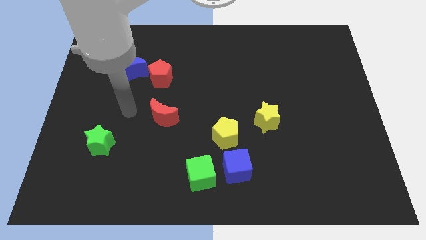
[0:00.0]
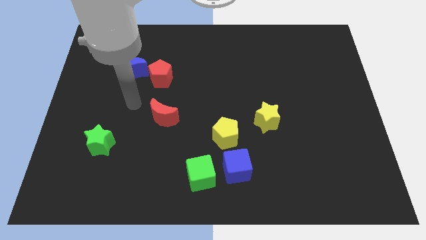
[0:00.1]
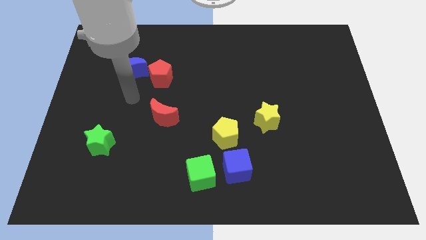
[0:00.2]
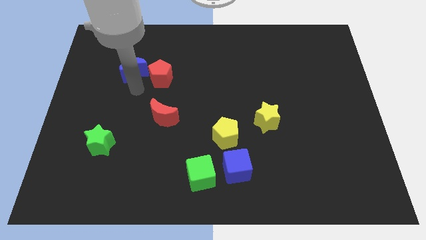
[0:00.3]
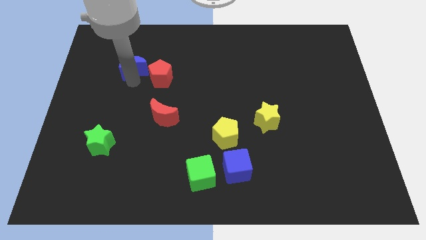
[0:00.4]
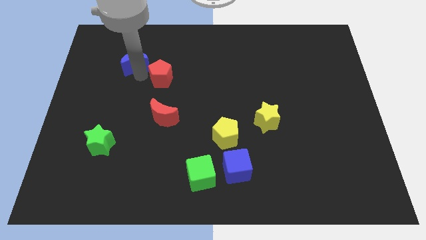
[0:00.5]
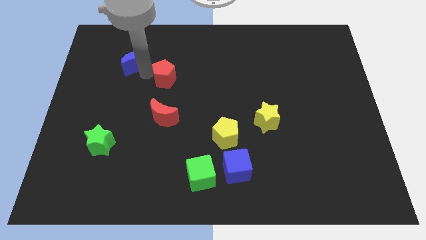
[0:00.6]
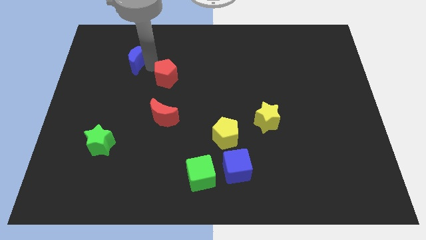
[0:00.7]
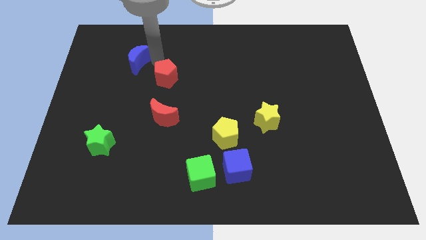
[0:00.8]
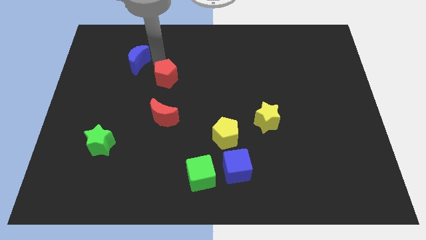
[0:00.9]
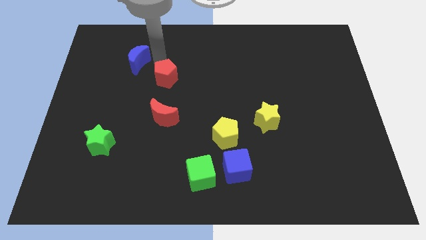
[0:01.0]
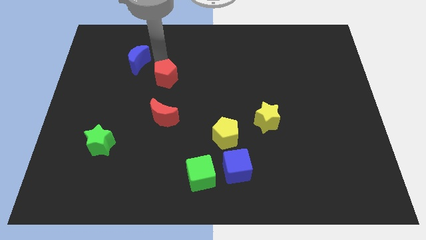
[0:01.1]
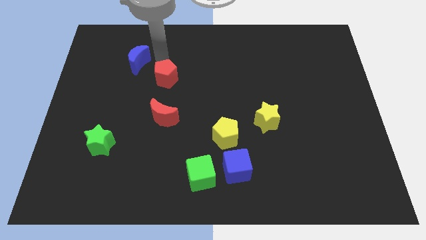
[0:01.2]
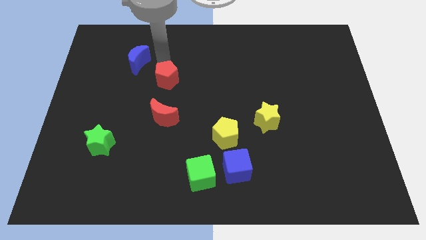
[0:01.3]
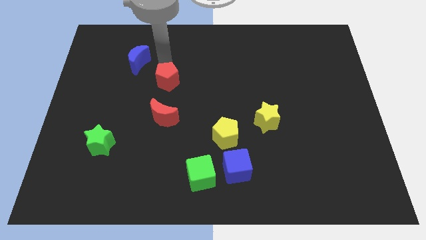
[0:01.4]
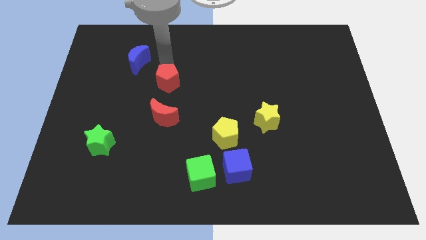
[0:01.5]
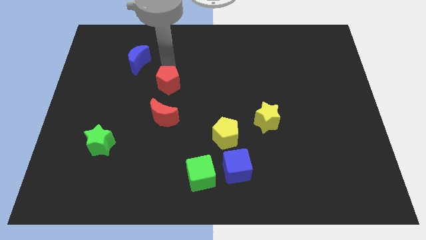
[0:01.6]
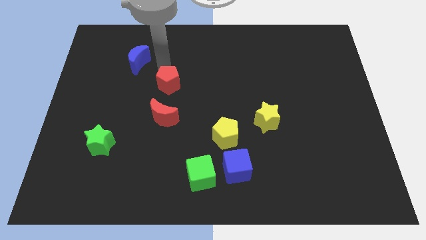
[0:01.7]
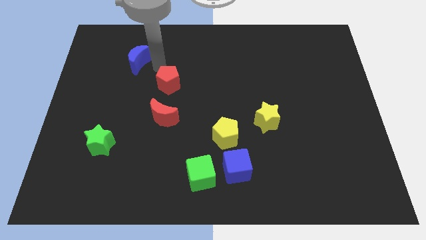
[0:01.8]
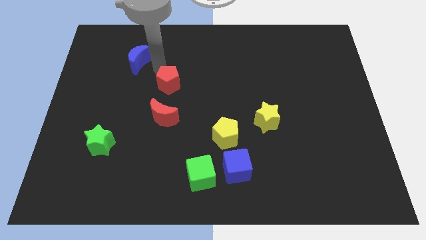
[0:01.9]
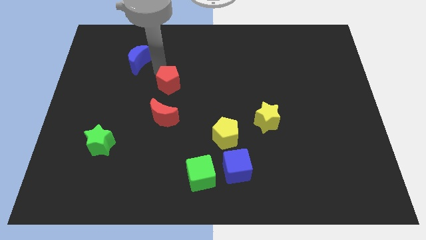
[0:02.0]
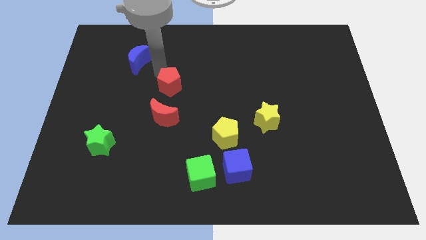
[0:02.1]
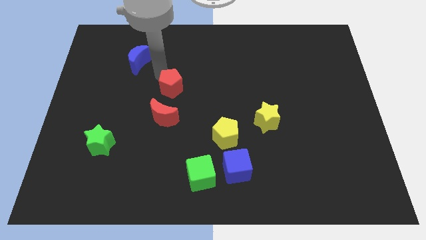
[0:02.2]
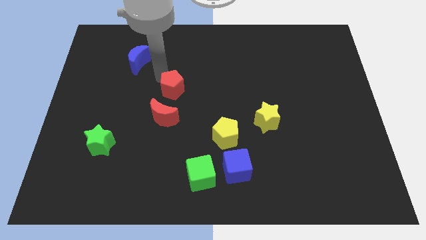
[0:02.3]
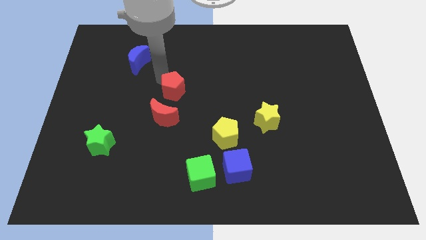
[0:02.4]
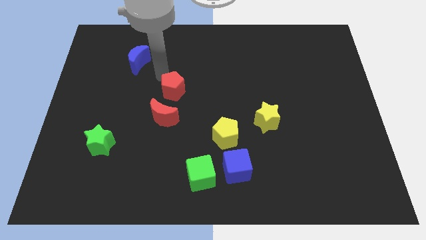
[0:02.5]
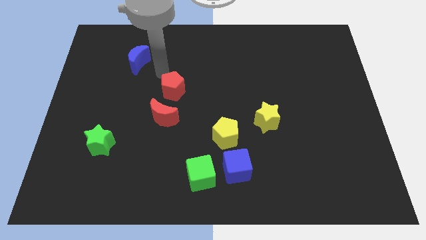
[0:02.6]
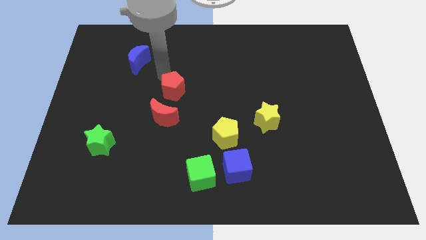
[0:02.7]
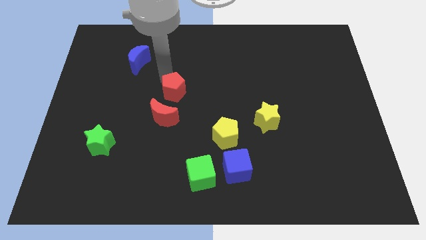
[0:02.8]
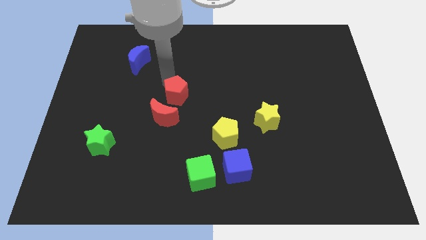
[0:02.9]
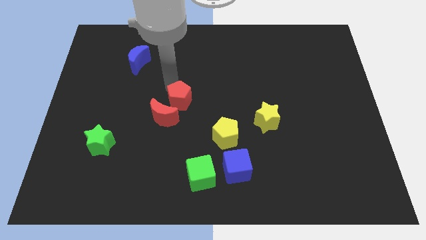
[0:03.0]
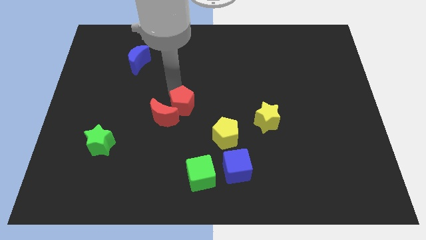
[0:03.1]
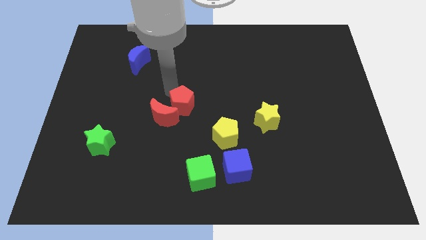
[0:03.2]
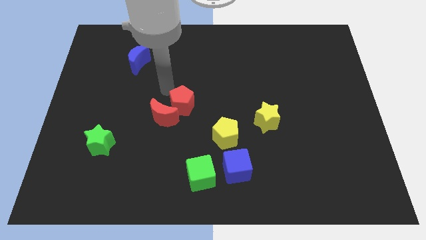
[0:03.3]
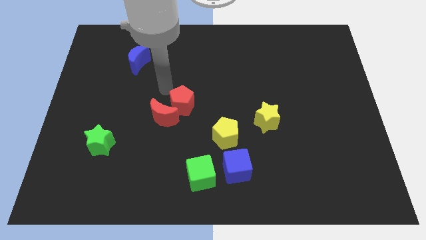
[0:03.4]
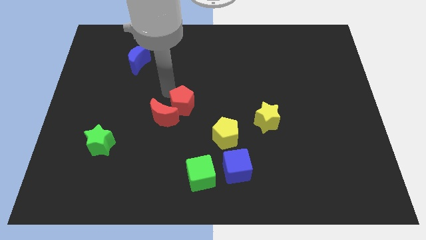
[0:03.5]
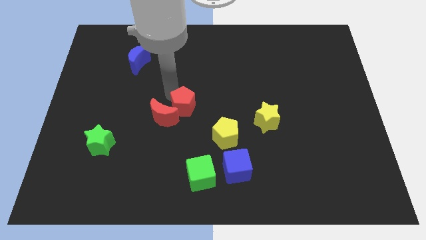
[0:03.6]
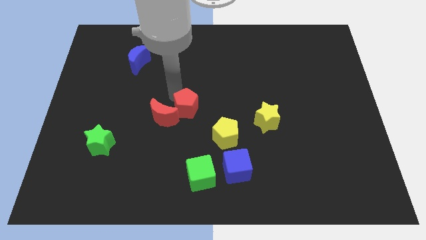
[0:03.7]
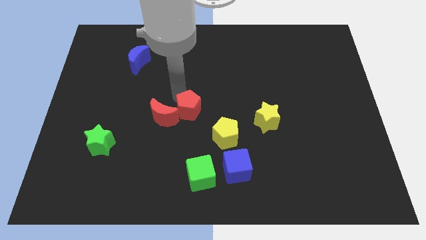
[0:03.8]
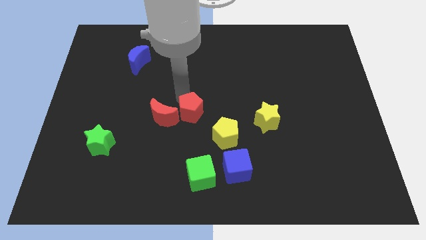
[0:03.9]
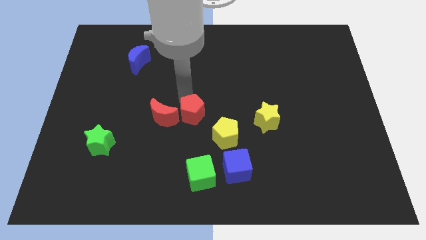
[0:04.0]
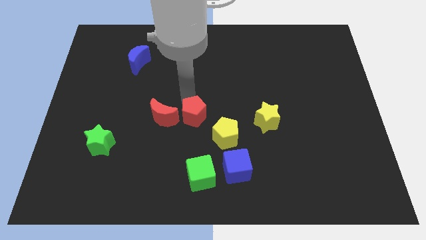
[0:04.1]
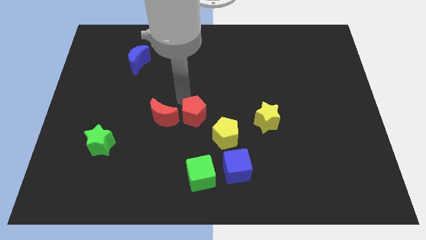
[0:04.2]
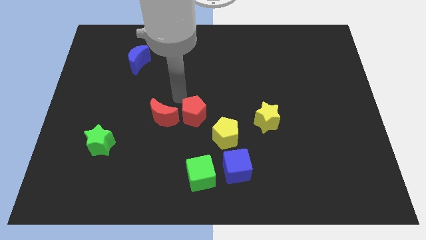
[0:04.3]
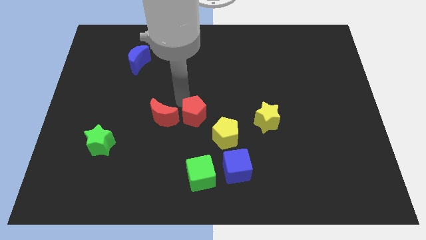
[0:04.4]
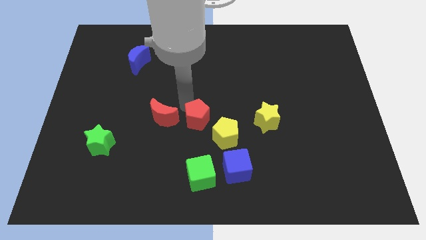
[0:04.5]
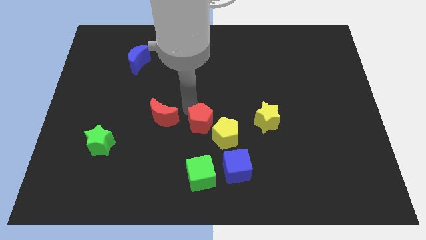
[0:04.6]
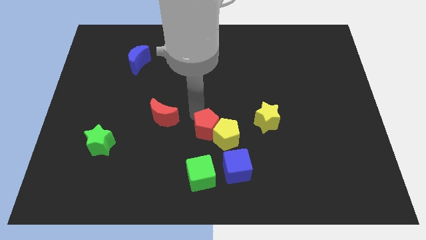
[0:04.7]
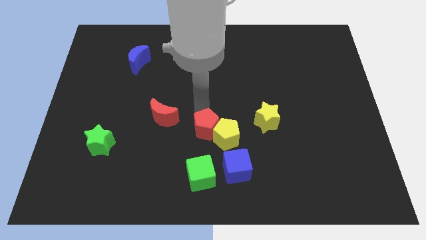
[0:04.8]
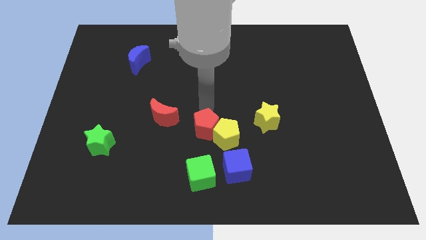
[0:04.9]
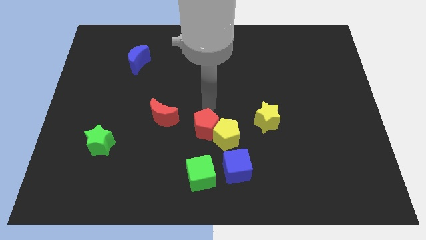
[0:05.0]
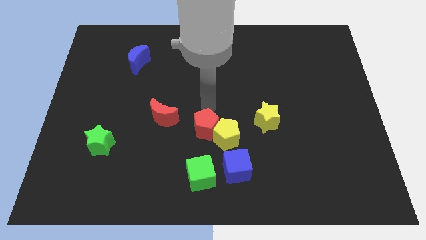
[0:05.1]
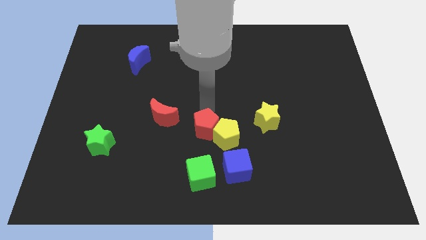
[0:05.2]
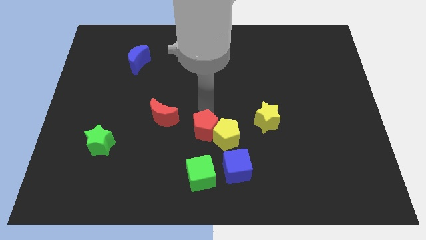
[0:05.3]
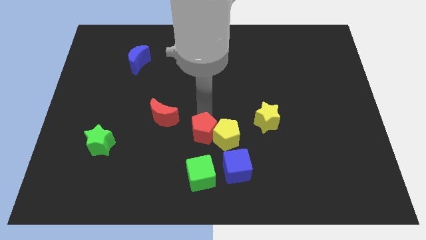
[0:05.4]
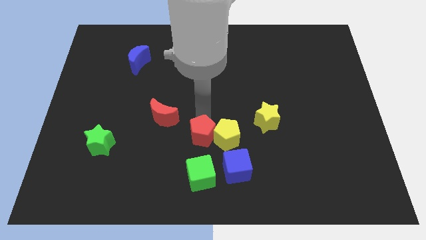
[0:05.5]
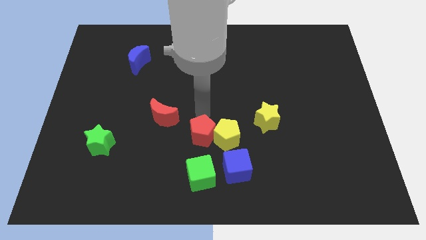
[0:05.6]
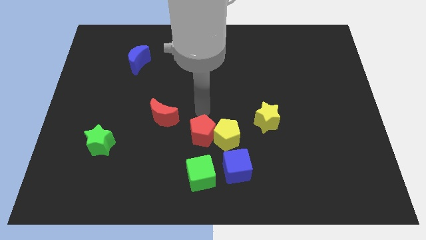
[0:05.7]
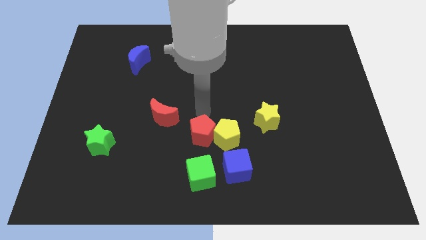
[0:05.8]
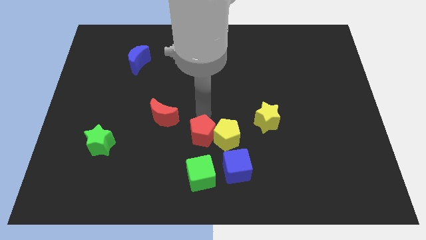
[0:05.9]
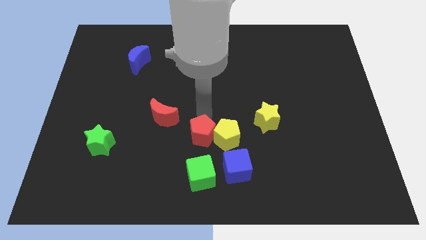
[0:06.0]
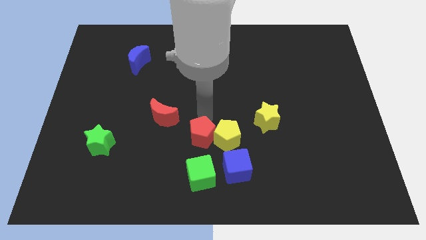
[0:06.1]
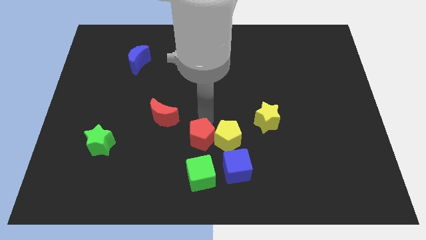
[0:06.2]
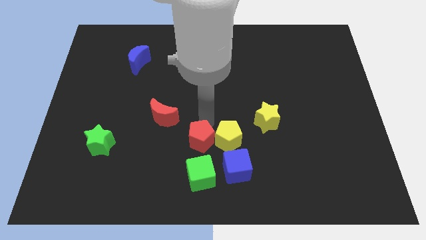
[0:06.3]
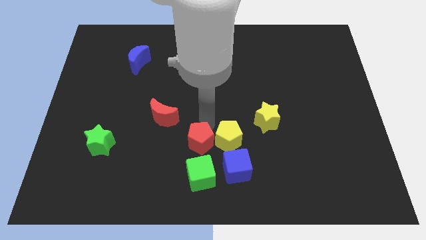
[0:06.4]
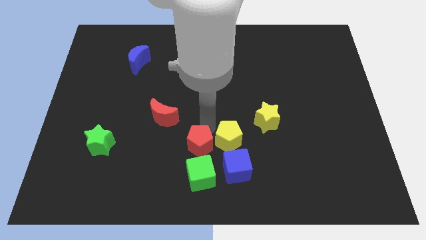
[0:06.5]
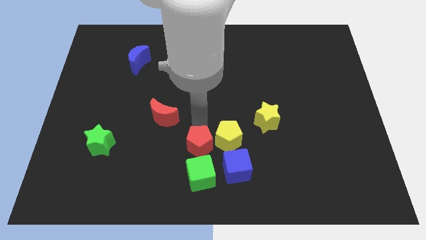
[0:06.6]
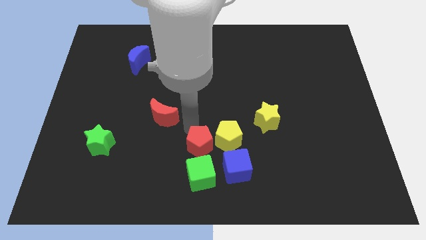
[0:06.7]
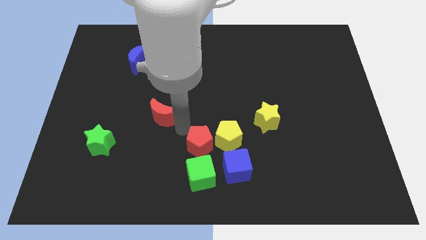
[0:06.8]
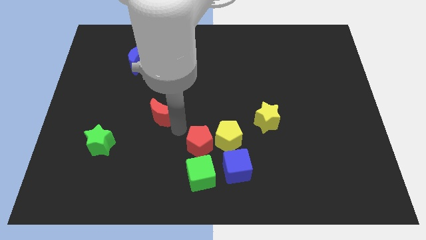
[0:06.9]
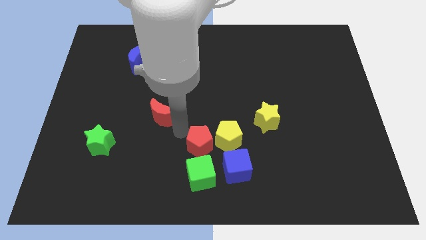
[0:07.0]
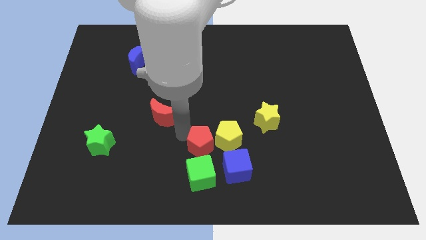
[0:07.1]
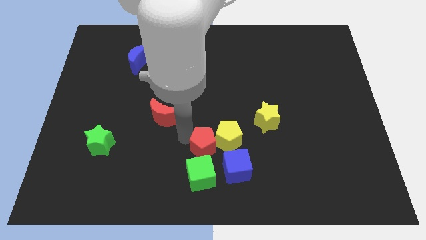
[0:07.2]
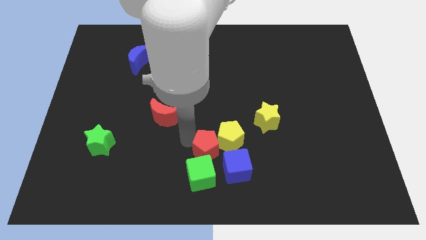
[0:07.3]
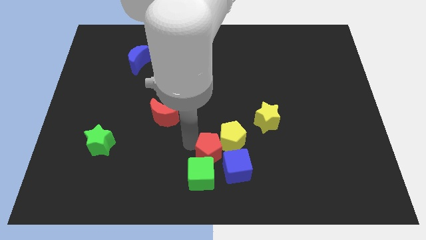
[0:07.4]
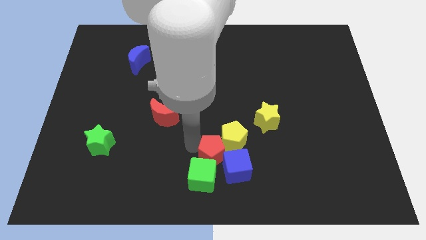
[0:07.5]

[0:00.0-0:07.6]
push the red pentagon next to the blue cube

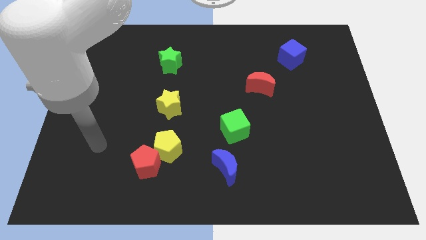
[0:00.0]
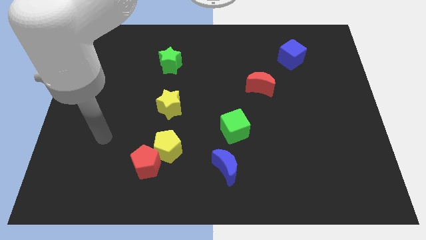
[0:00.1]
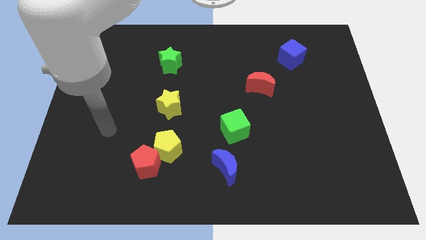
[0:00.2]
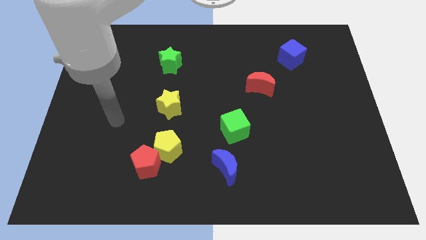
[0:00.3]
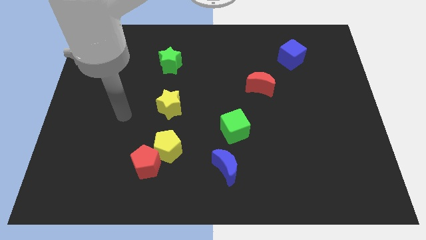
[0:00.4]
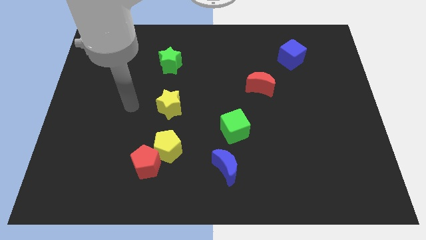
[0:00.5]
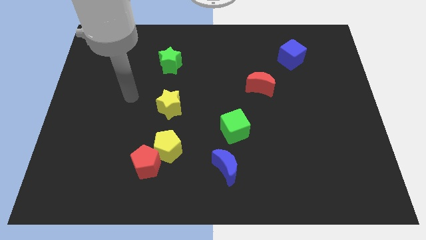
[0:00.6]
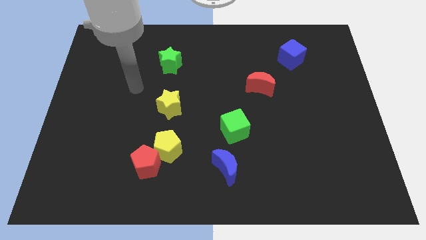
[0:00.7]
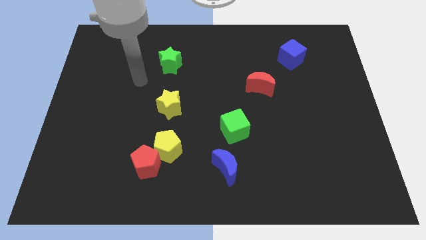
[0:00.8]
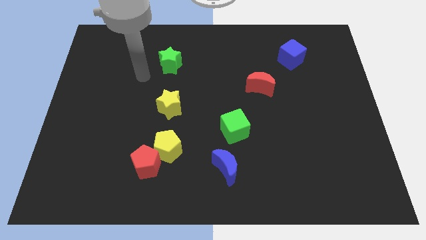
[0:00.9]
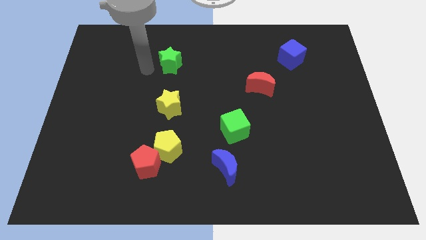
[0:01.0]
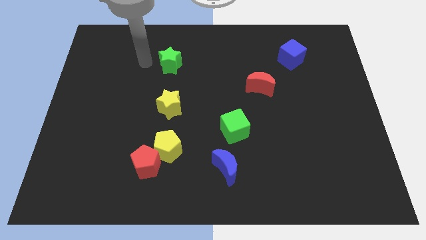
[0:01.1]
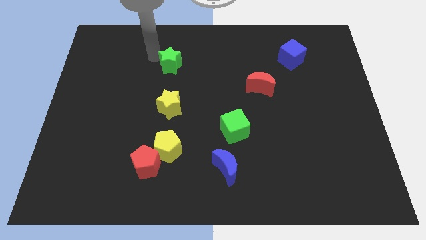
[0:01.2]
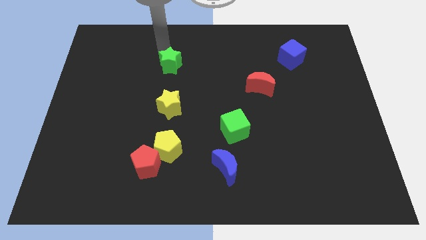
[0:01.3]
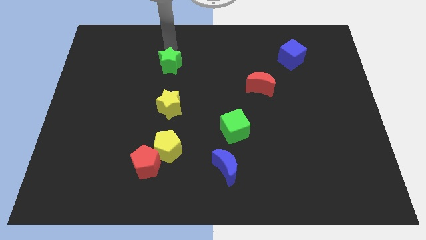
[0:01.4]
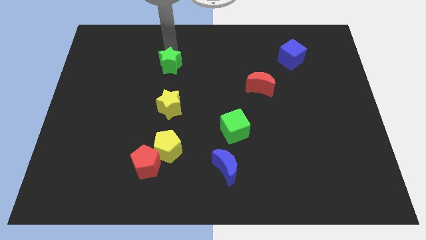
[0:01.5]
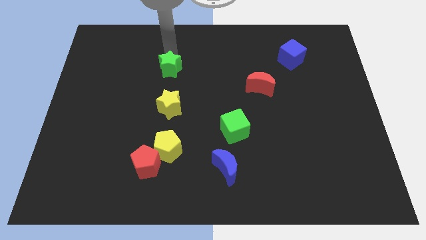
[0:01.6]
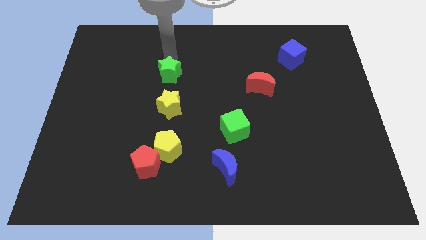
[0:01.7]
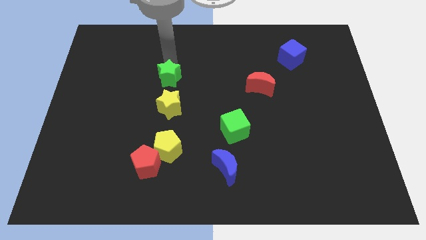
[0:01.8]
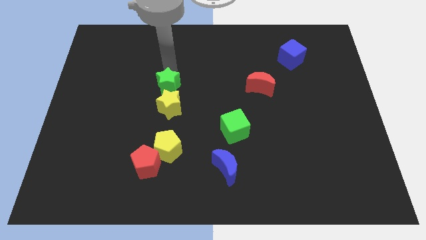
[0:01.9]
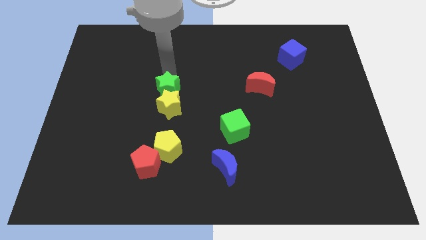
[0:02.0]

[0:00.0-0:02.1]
move the green star next to the yellow star
